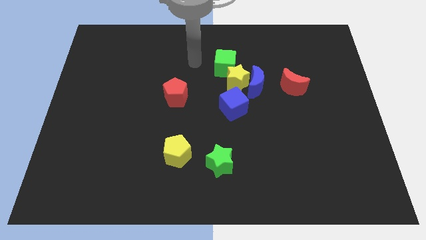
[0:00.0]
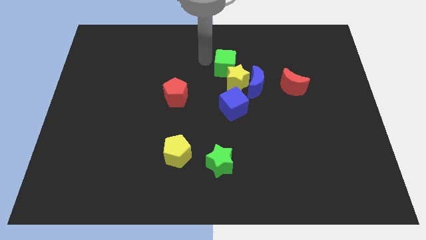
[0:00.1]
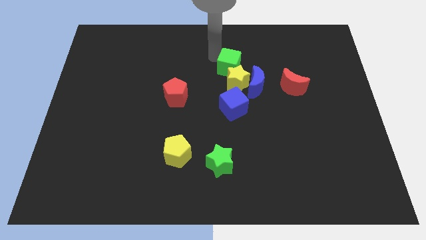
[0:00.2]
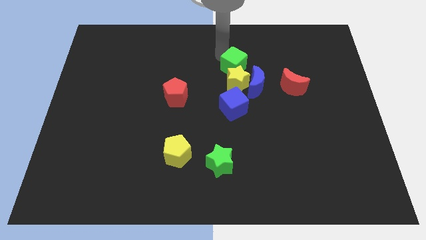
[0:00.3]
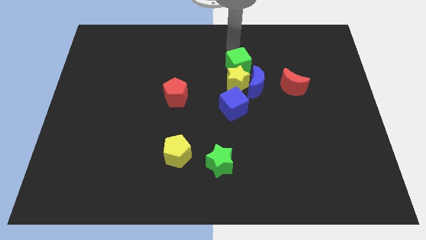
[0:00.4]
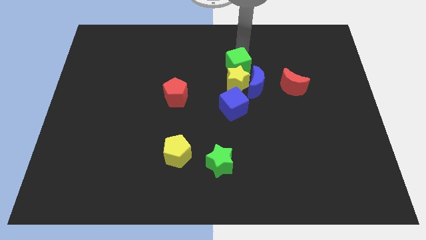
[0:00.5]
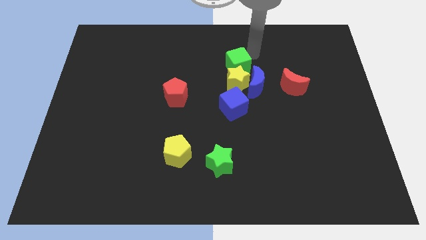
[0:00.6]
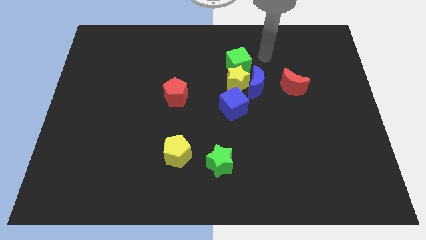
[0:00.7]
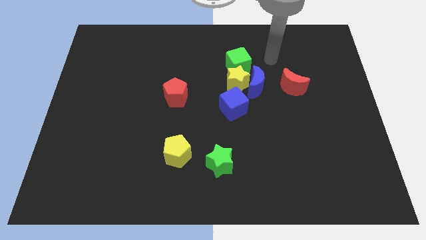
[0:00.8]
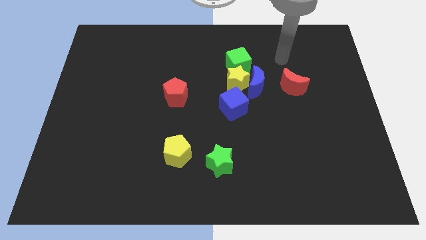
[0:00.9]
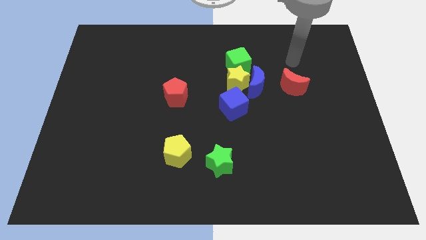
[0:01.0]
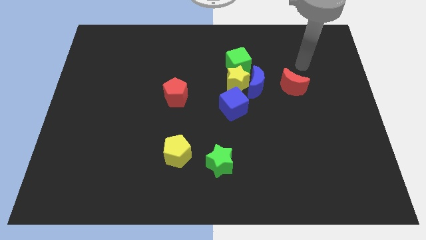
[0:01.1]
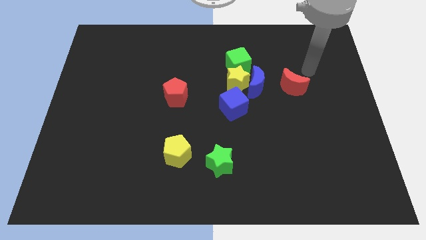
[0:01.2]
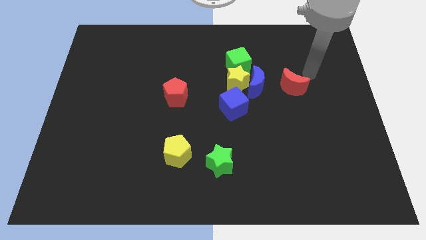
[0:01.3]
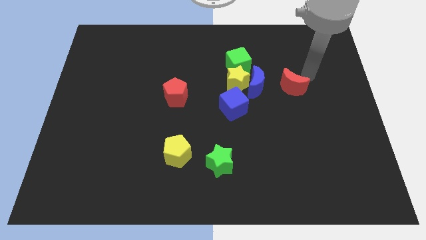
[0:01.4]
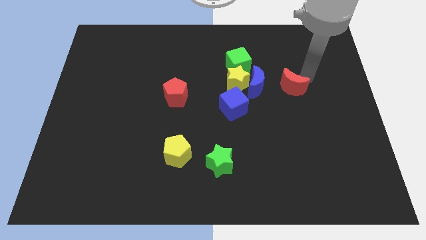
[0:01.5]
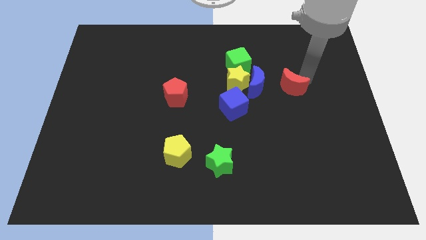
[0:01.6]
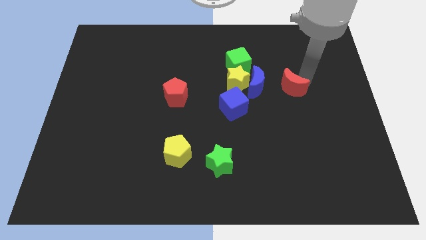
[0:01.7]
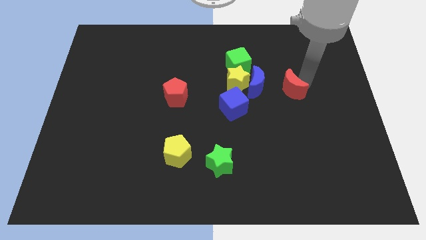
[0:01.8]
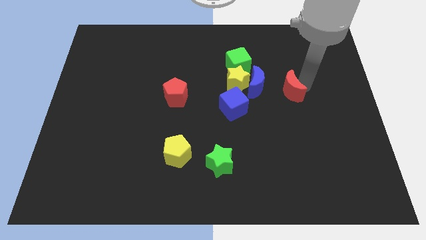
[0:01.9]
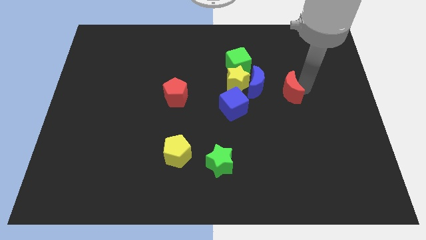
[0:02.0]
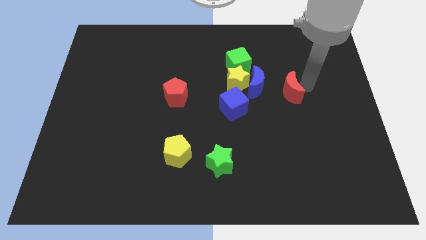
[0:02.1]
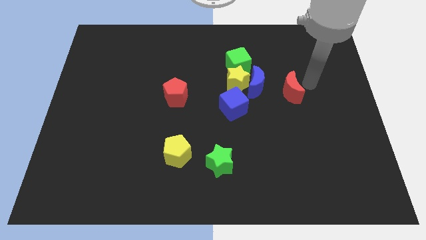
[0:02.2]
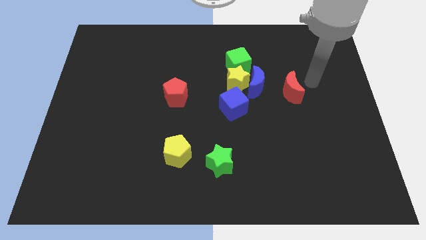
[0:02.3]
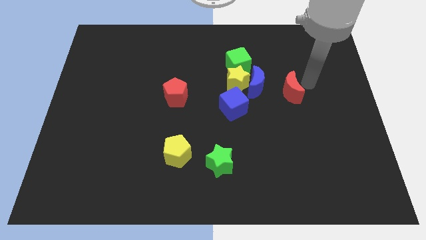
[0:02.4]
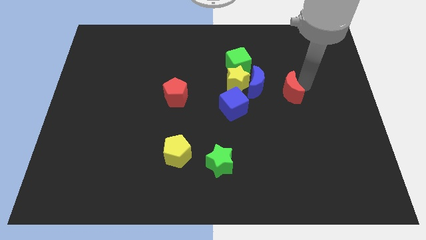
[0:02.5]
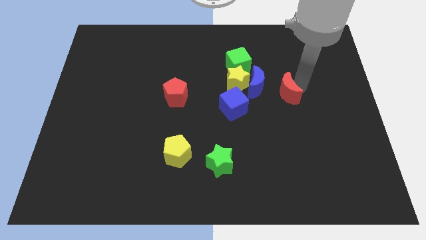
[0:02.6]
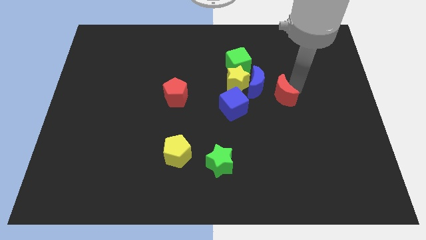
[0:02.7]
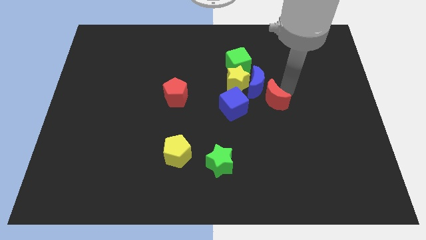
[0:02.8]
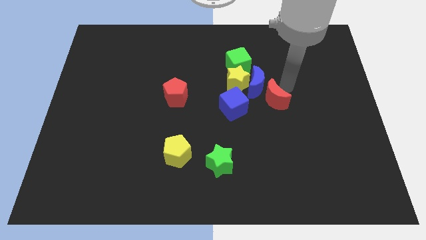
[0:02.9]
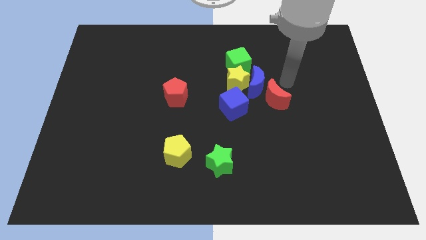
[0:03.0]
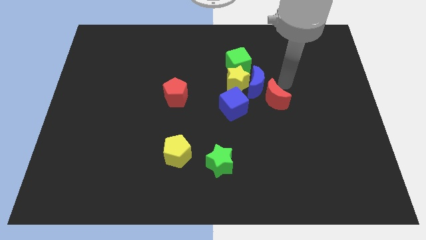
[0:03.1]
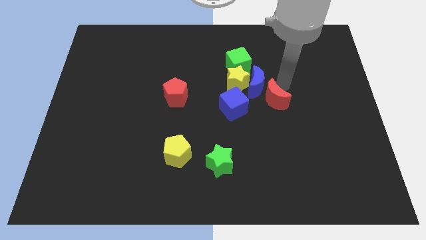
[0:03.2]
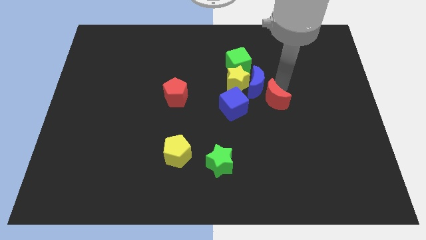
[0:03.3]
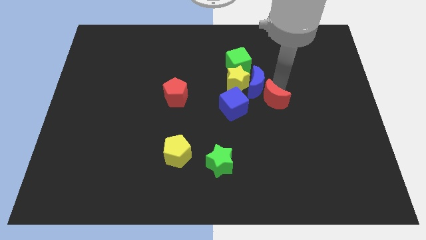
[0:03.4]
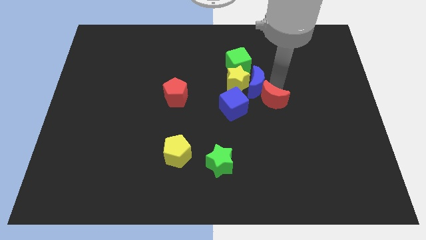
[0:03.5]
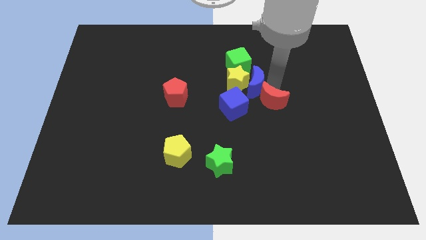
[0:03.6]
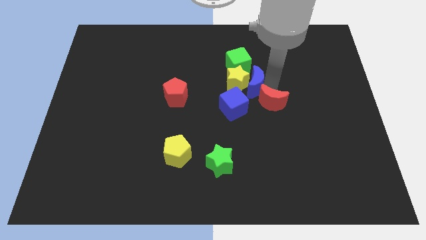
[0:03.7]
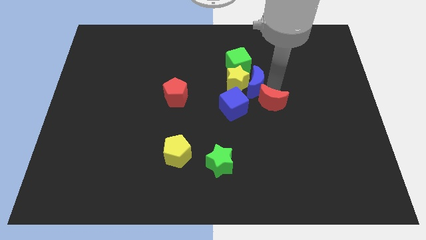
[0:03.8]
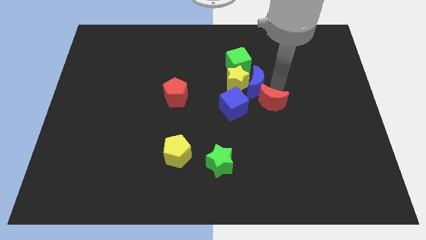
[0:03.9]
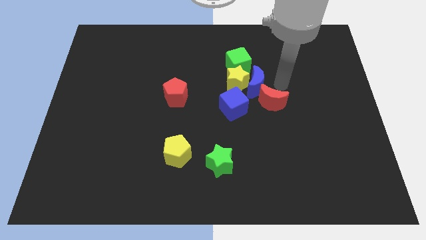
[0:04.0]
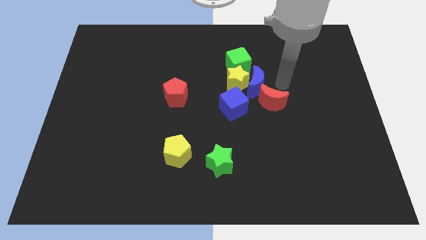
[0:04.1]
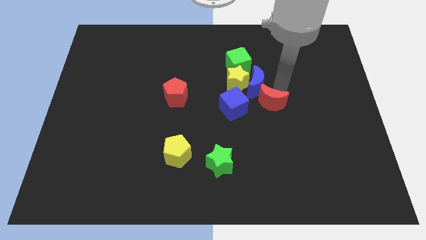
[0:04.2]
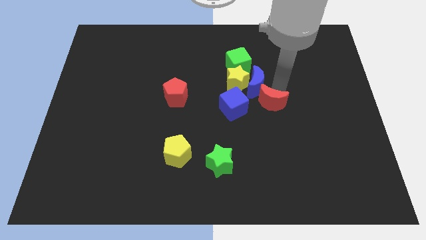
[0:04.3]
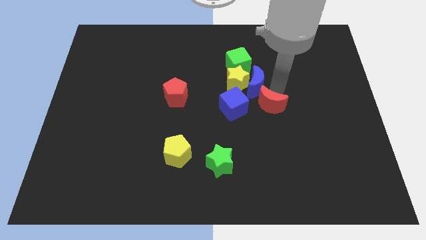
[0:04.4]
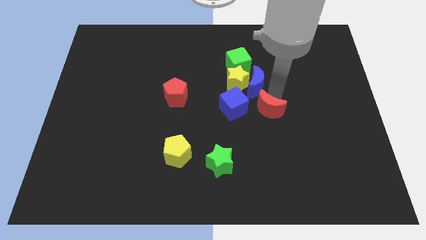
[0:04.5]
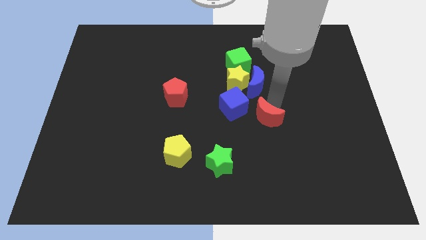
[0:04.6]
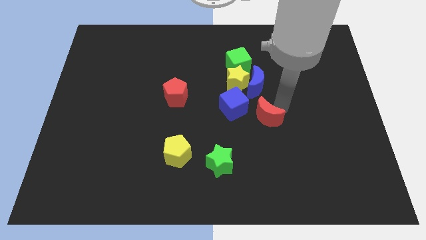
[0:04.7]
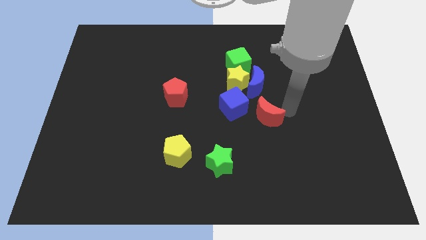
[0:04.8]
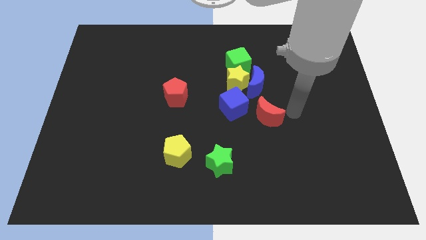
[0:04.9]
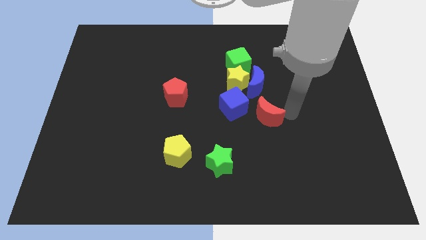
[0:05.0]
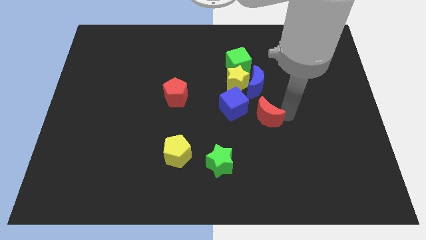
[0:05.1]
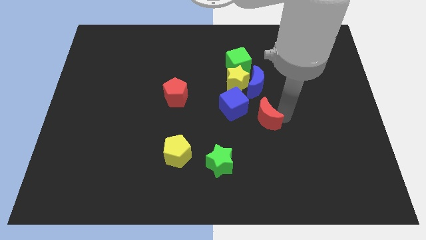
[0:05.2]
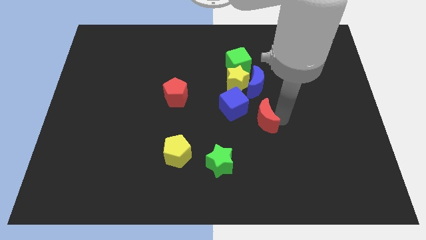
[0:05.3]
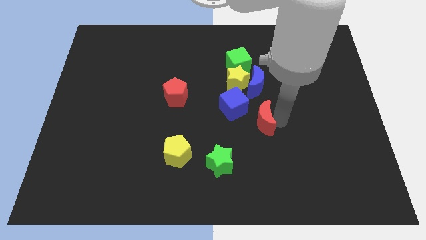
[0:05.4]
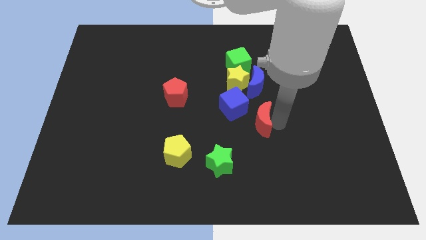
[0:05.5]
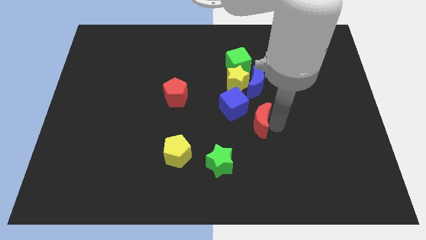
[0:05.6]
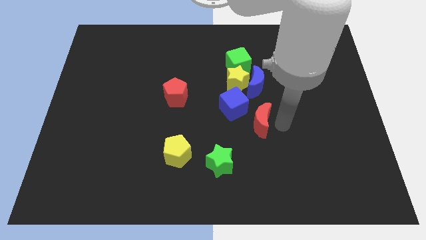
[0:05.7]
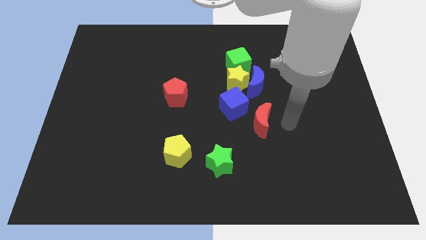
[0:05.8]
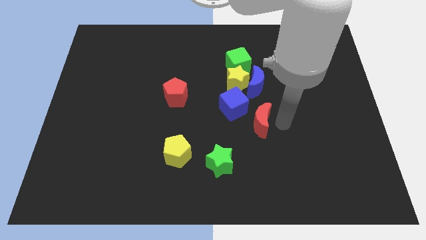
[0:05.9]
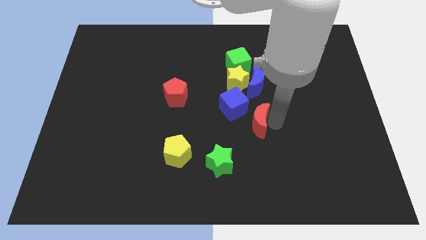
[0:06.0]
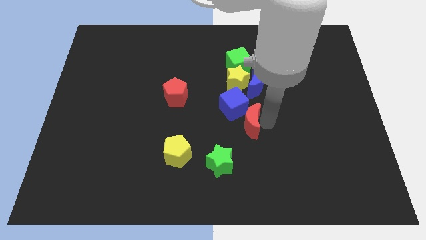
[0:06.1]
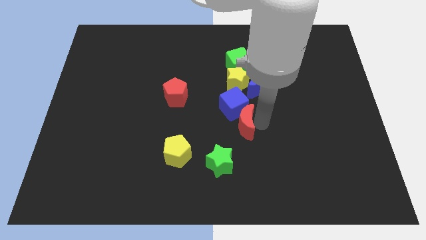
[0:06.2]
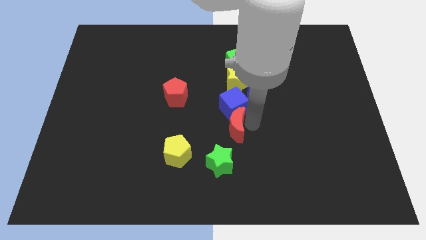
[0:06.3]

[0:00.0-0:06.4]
put the red moon to the bottom left of the blue cube

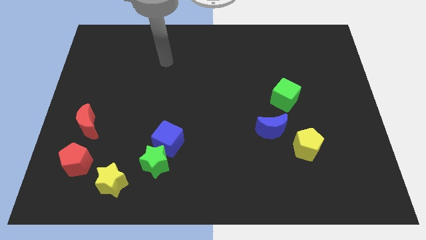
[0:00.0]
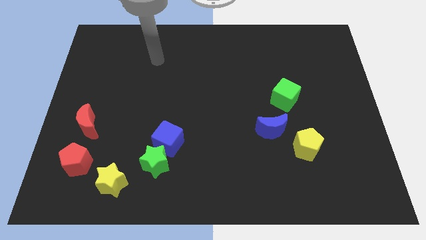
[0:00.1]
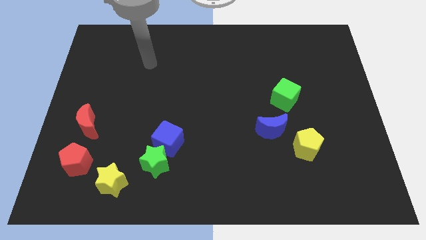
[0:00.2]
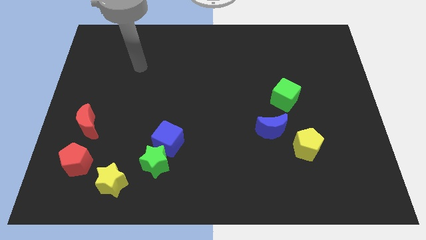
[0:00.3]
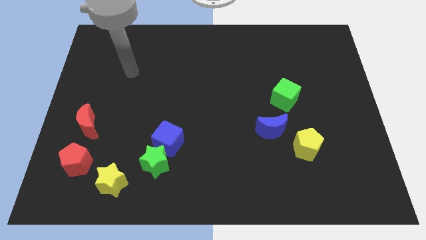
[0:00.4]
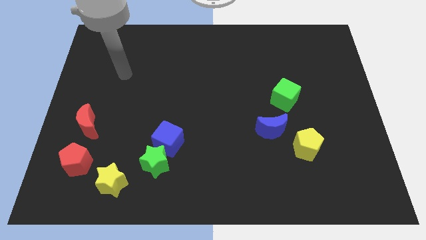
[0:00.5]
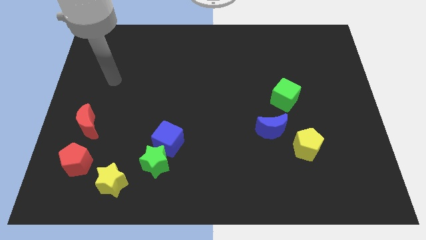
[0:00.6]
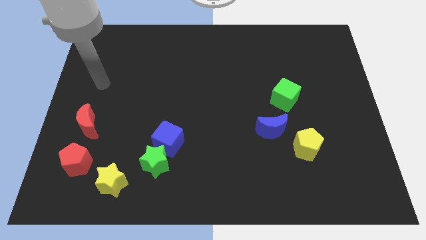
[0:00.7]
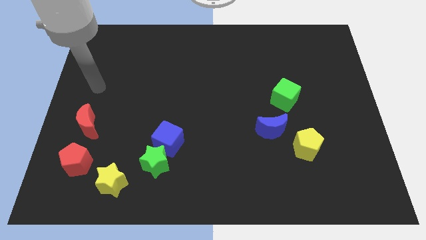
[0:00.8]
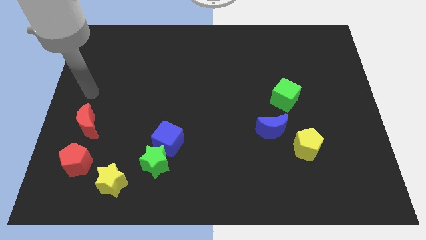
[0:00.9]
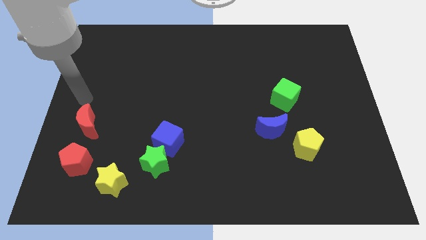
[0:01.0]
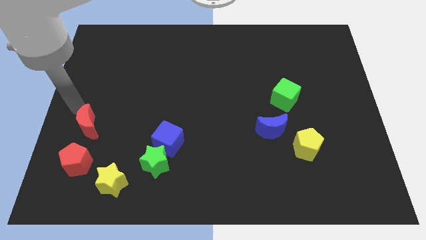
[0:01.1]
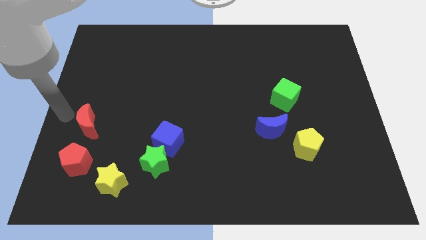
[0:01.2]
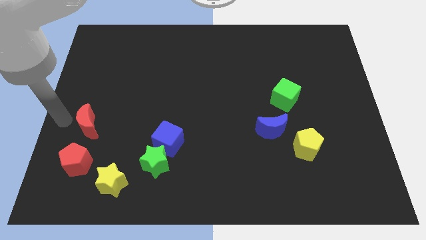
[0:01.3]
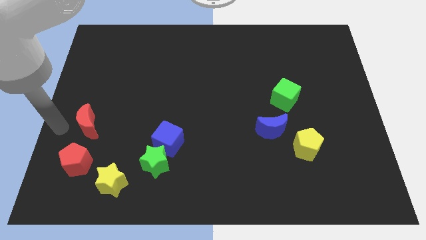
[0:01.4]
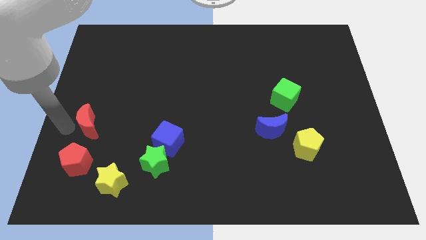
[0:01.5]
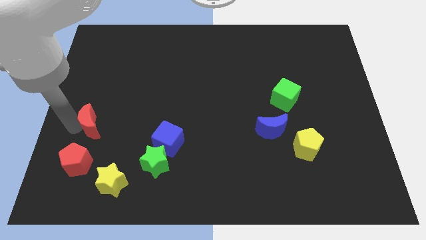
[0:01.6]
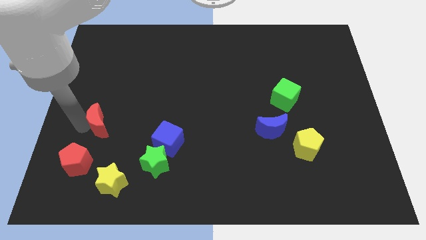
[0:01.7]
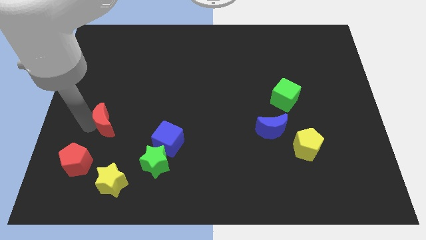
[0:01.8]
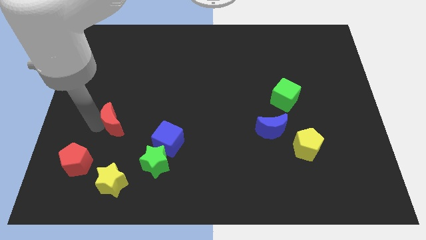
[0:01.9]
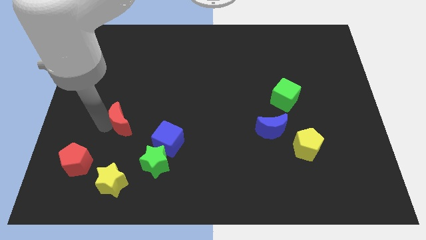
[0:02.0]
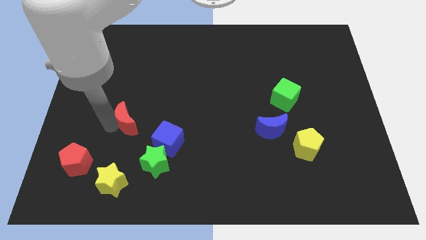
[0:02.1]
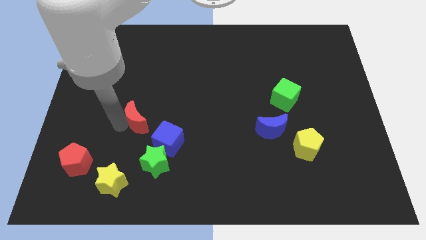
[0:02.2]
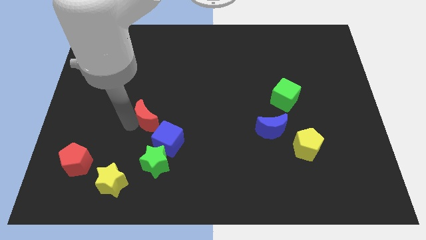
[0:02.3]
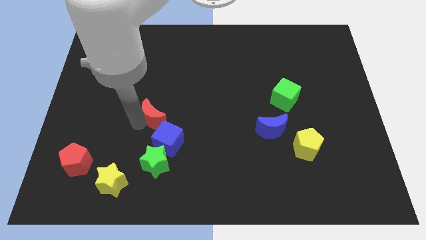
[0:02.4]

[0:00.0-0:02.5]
push the red moon to the top of the blue cube
